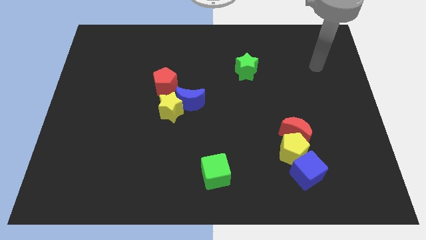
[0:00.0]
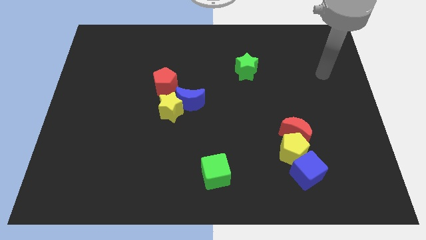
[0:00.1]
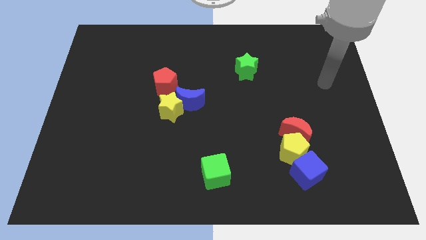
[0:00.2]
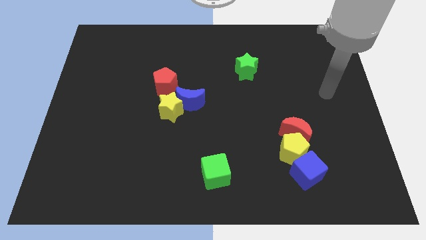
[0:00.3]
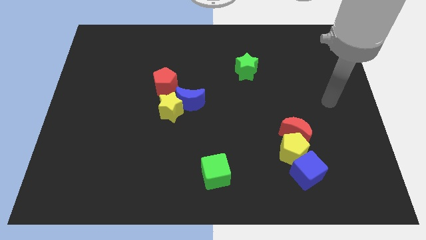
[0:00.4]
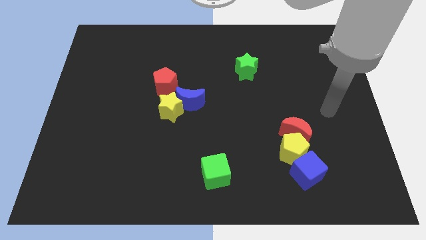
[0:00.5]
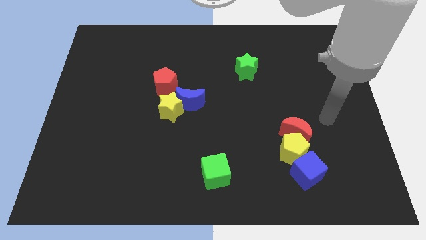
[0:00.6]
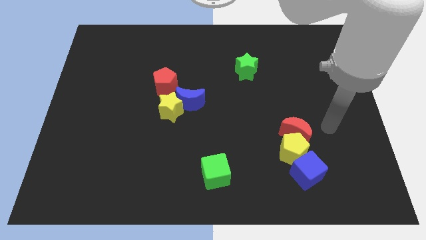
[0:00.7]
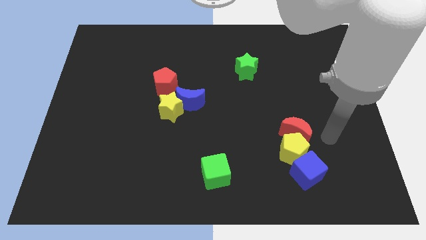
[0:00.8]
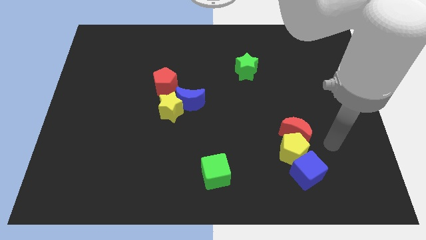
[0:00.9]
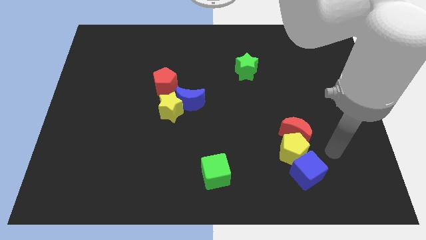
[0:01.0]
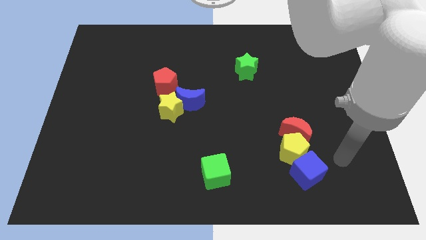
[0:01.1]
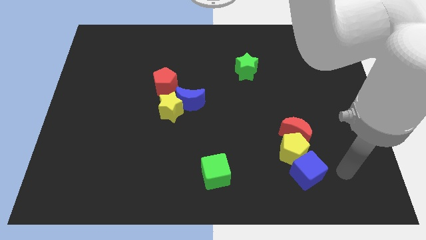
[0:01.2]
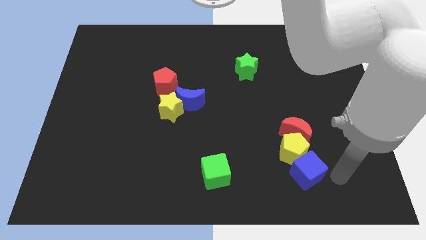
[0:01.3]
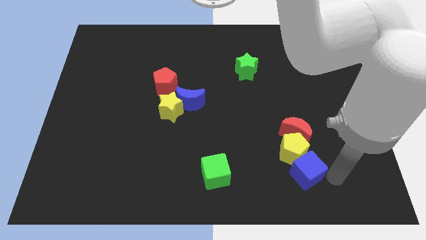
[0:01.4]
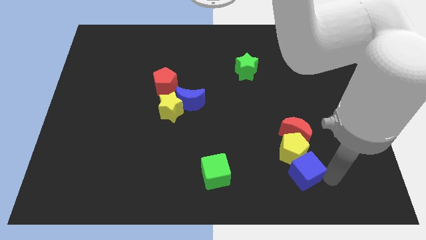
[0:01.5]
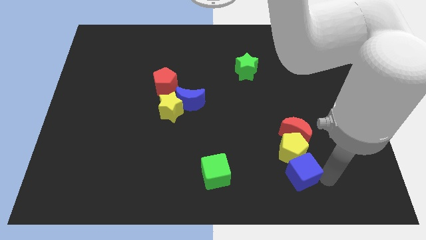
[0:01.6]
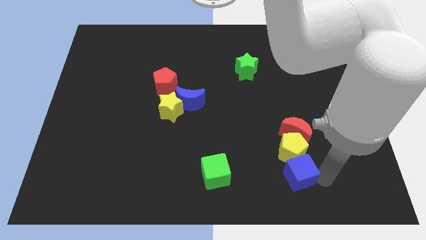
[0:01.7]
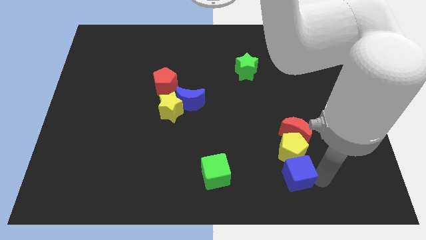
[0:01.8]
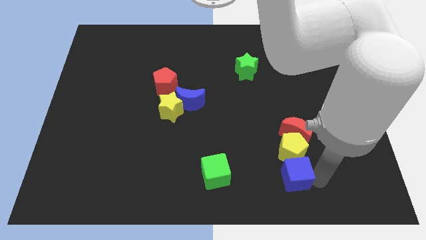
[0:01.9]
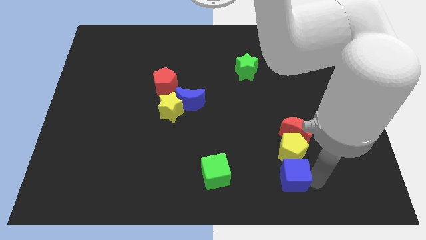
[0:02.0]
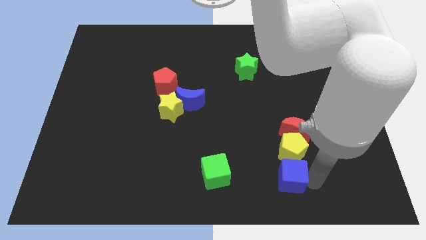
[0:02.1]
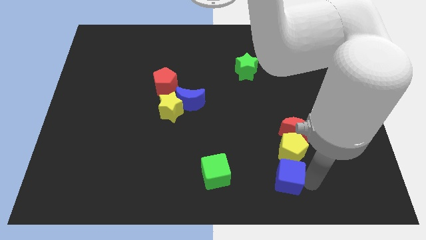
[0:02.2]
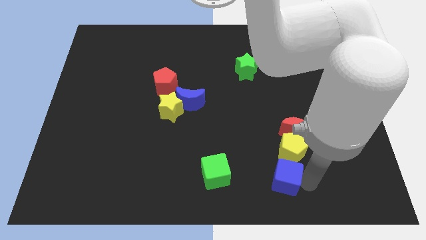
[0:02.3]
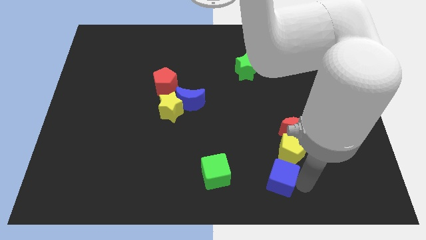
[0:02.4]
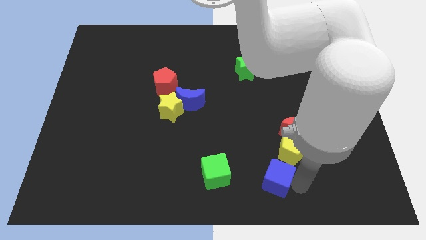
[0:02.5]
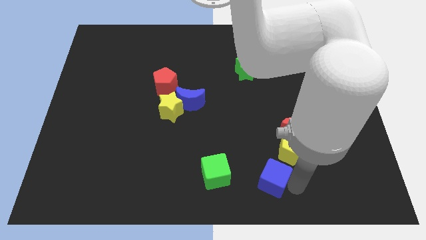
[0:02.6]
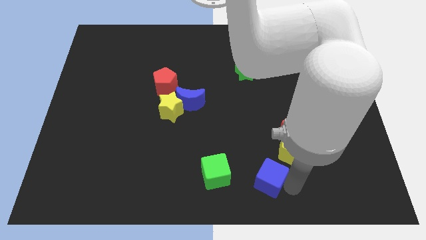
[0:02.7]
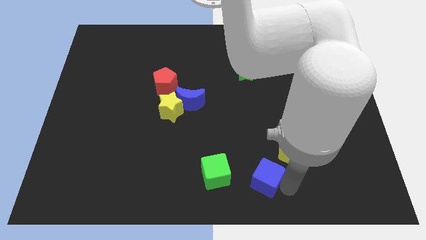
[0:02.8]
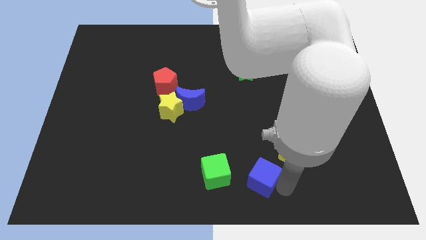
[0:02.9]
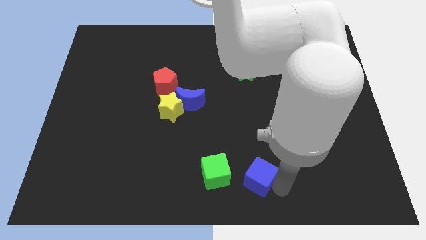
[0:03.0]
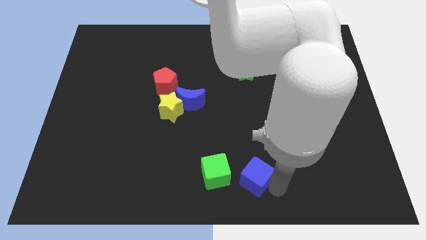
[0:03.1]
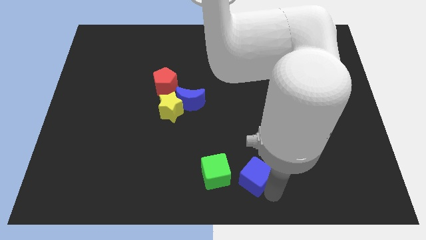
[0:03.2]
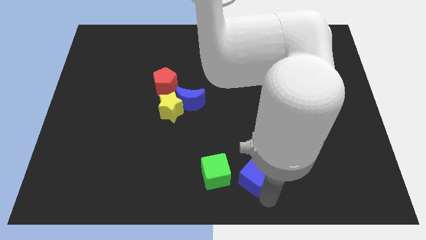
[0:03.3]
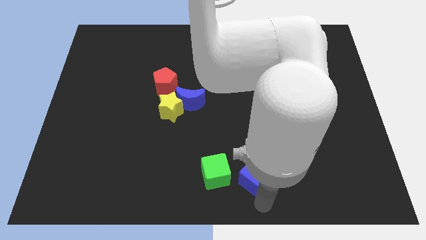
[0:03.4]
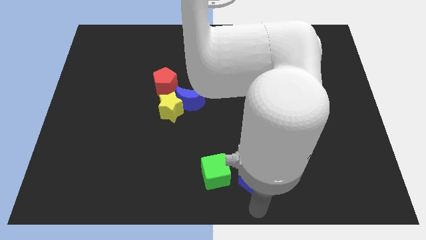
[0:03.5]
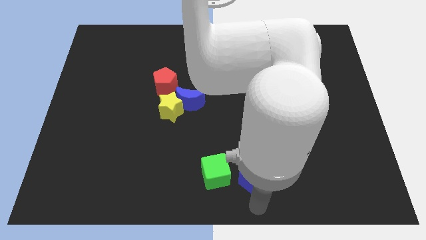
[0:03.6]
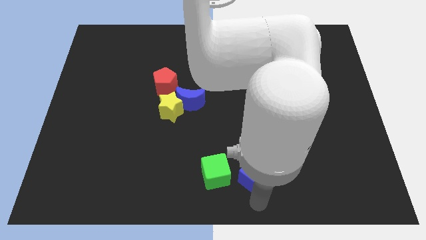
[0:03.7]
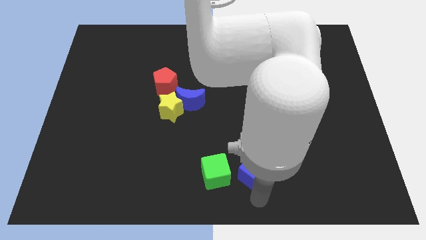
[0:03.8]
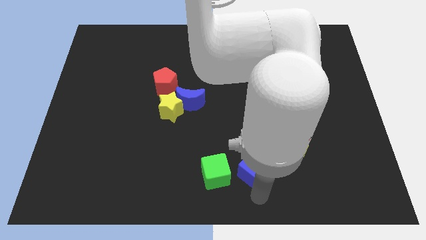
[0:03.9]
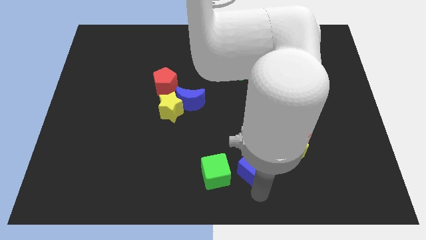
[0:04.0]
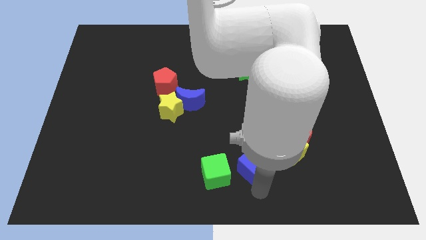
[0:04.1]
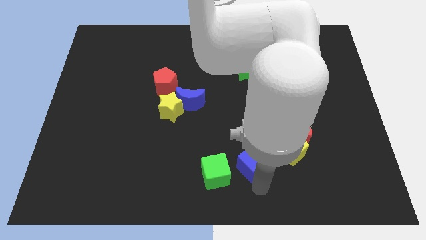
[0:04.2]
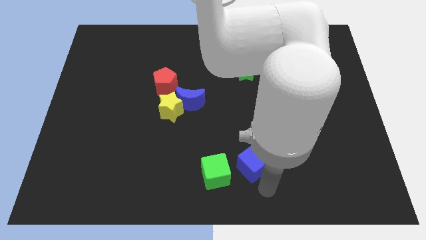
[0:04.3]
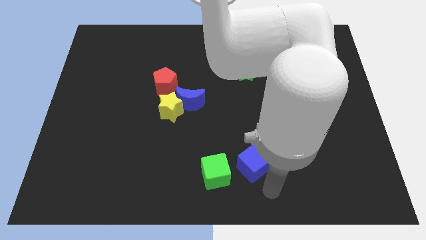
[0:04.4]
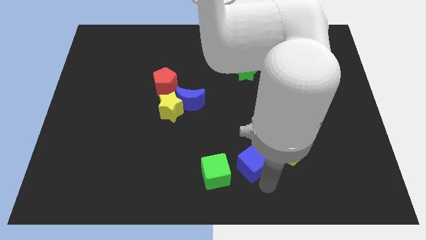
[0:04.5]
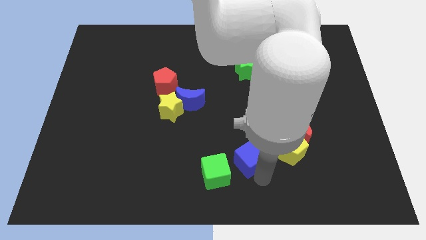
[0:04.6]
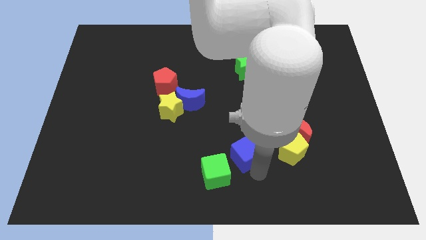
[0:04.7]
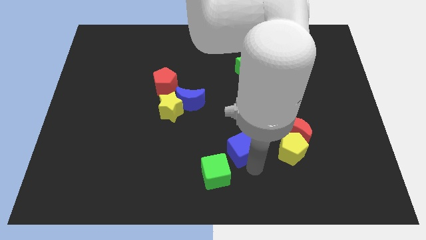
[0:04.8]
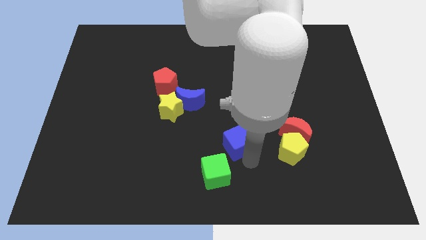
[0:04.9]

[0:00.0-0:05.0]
put the blue cube to the top of the green cube

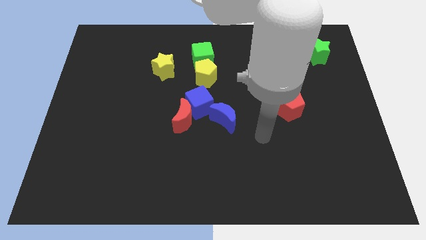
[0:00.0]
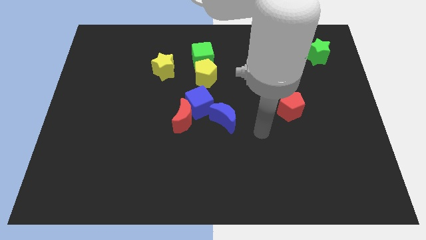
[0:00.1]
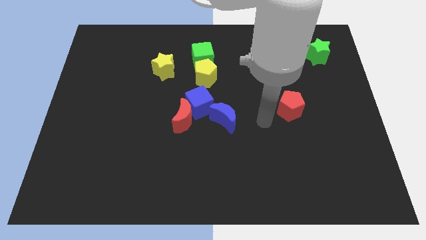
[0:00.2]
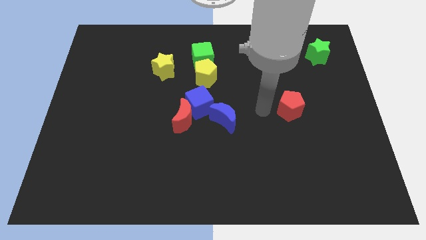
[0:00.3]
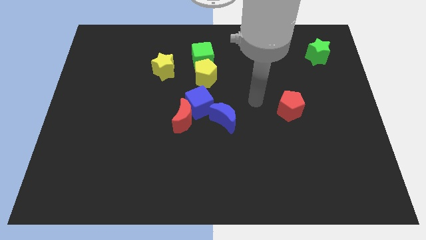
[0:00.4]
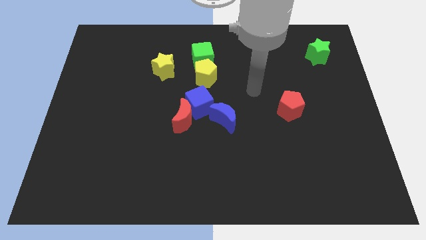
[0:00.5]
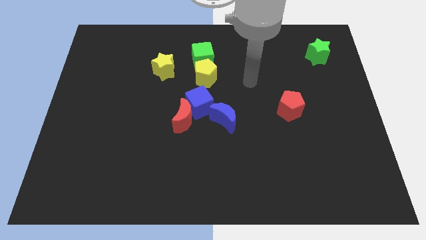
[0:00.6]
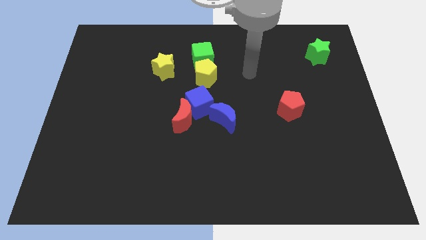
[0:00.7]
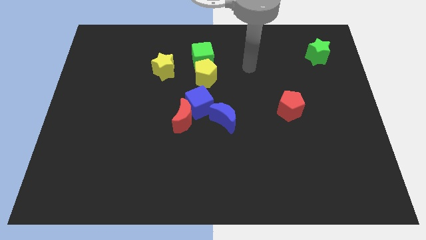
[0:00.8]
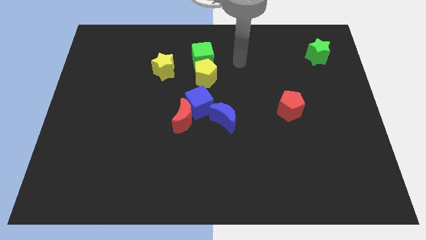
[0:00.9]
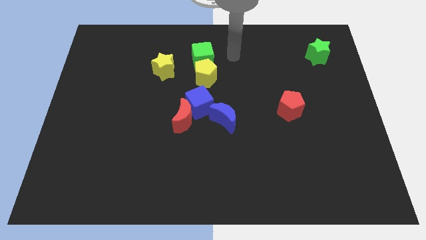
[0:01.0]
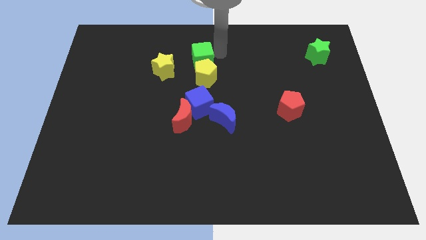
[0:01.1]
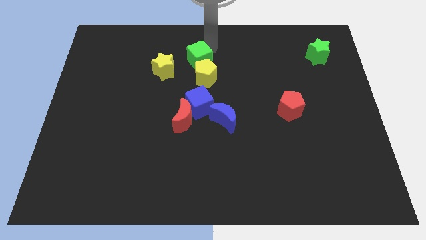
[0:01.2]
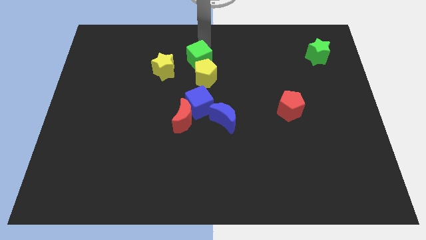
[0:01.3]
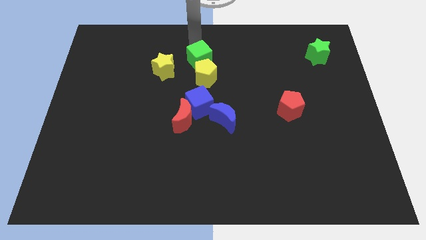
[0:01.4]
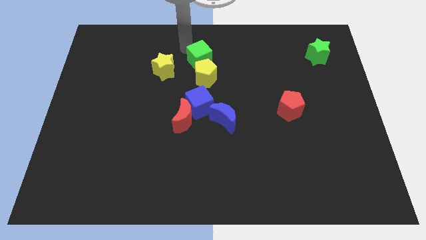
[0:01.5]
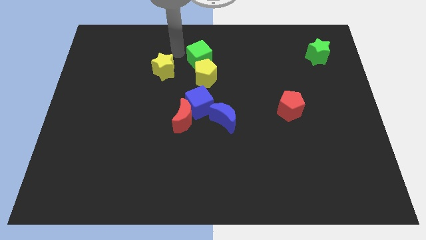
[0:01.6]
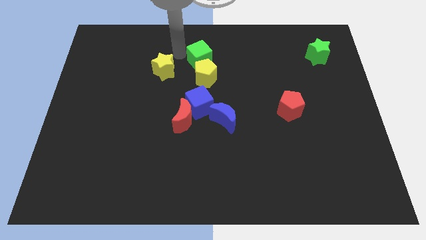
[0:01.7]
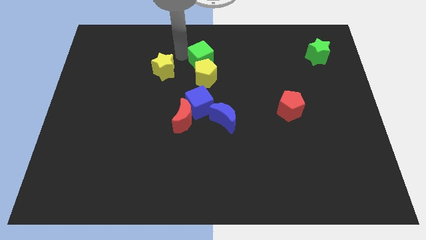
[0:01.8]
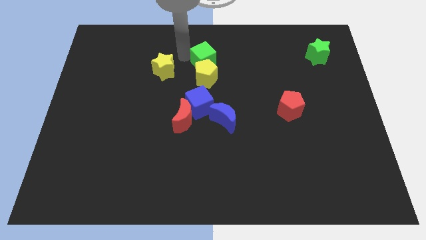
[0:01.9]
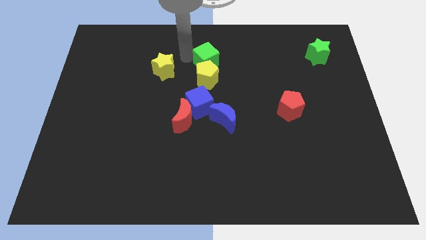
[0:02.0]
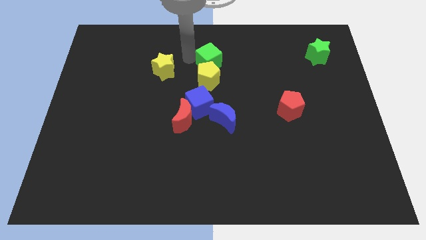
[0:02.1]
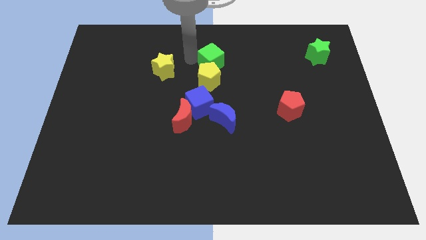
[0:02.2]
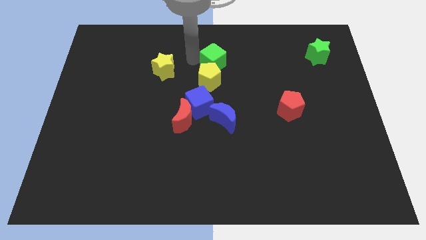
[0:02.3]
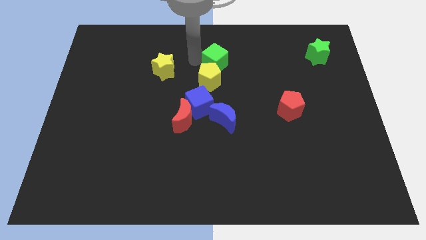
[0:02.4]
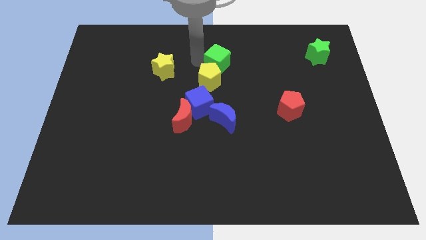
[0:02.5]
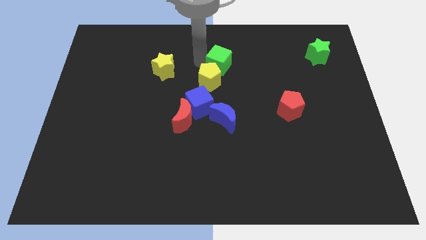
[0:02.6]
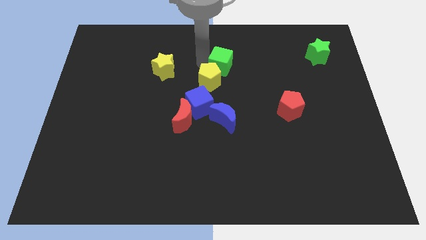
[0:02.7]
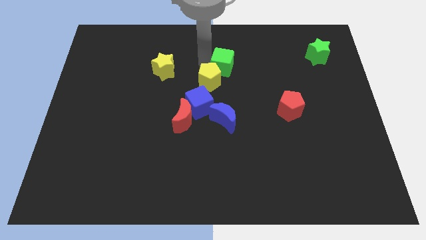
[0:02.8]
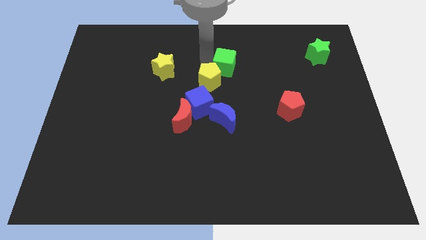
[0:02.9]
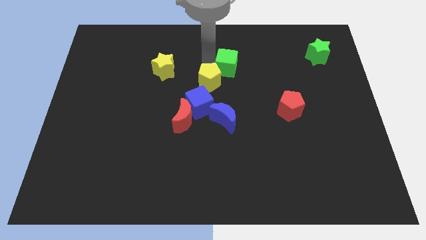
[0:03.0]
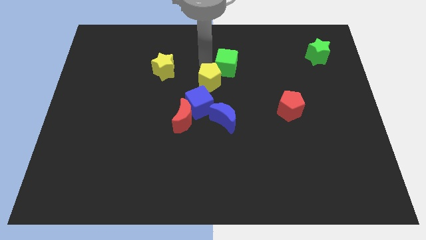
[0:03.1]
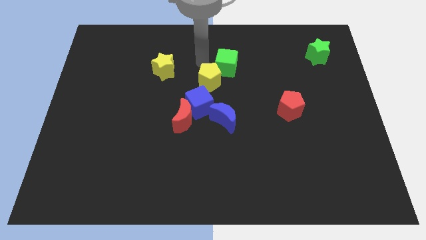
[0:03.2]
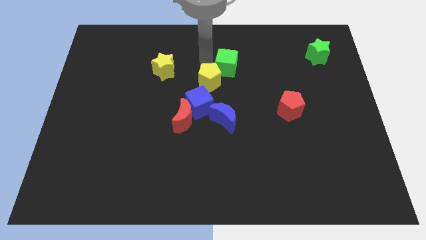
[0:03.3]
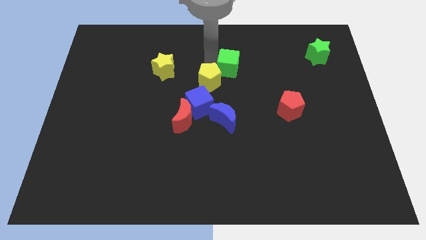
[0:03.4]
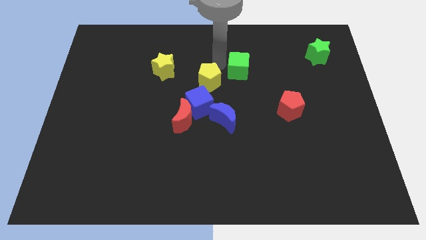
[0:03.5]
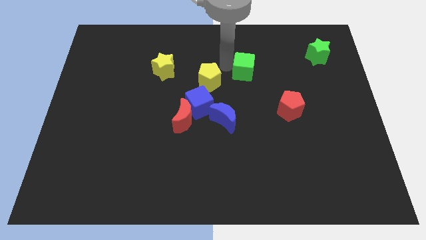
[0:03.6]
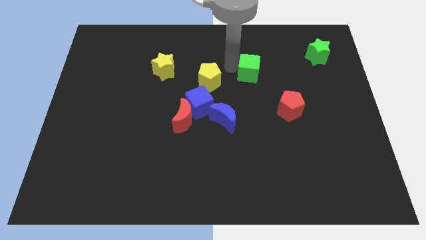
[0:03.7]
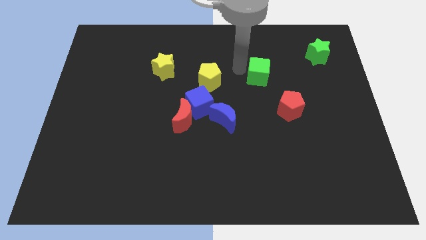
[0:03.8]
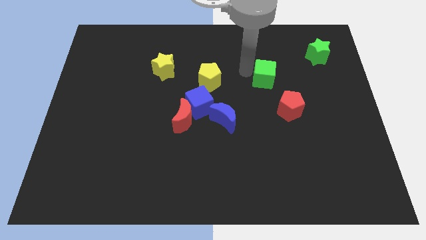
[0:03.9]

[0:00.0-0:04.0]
move the green cube to the top of the red pentagon
